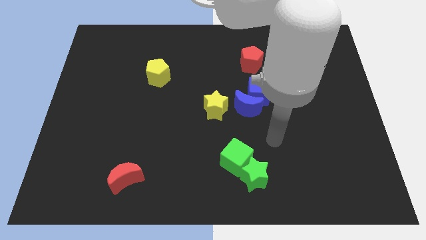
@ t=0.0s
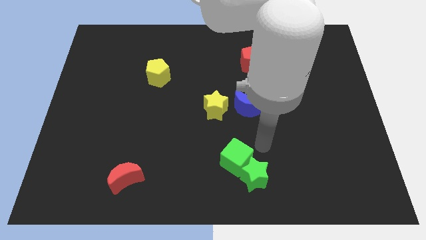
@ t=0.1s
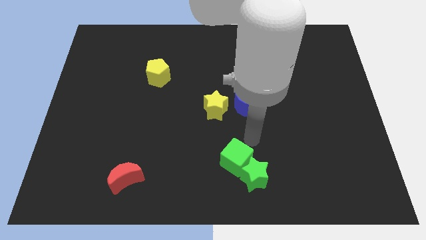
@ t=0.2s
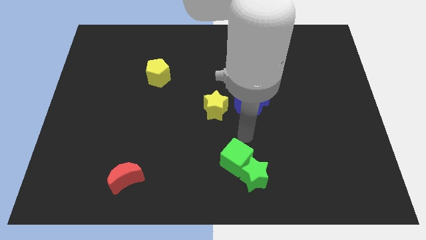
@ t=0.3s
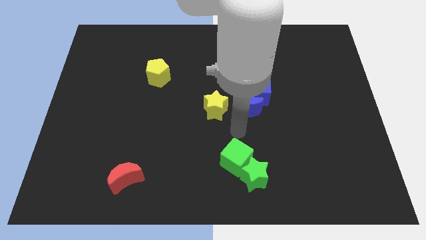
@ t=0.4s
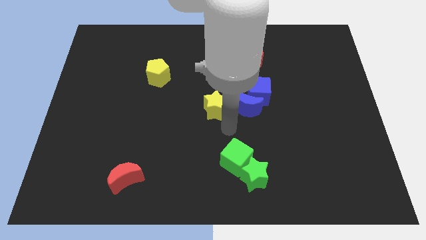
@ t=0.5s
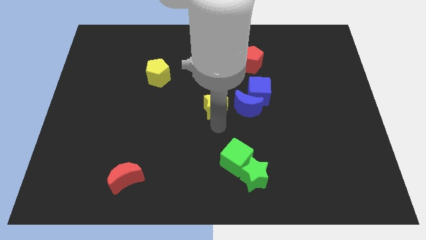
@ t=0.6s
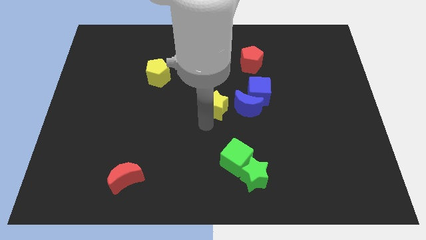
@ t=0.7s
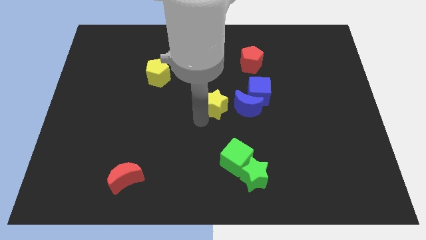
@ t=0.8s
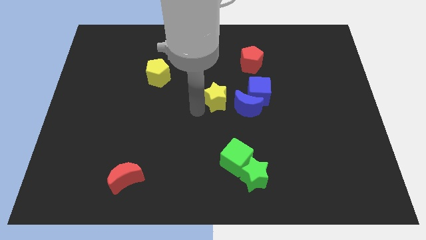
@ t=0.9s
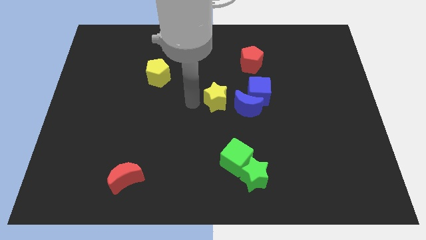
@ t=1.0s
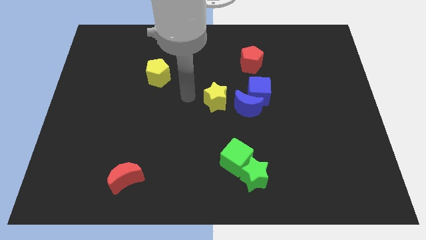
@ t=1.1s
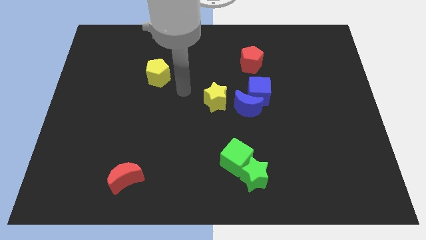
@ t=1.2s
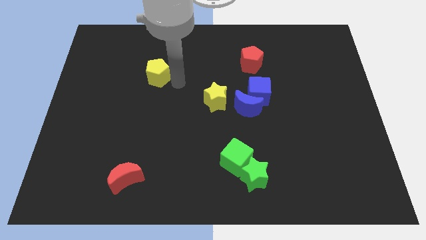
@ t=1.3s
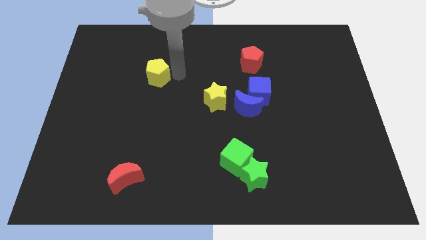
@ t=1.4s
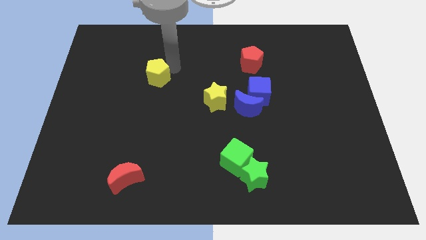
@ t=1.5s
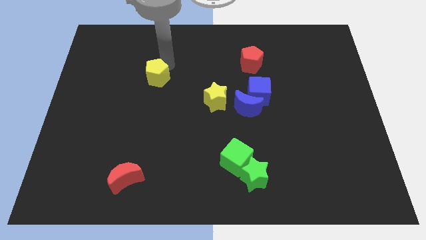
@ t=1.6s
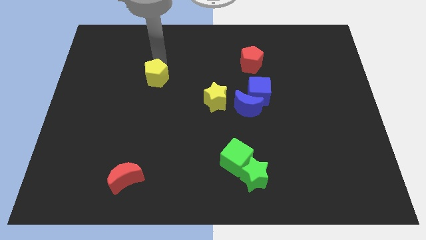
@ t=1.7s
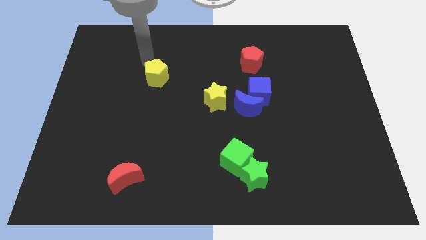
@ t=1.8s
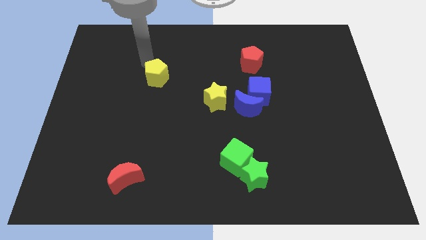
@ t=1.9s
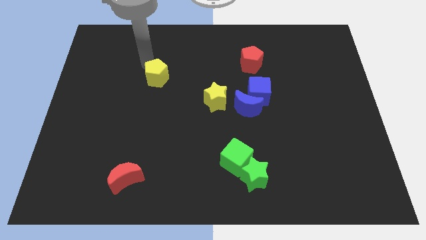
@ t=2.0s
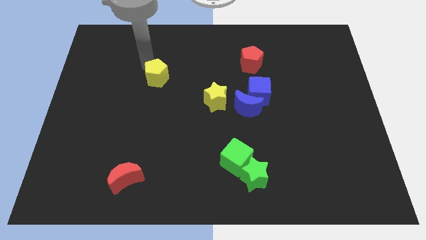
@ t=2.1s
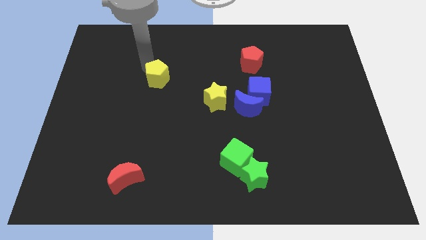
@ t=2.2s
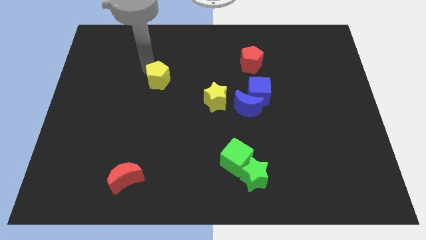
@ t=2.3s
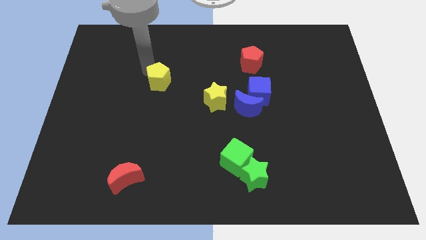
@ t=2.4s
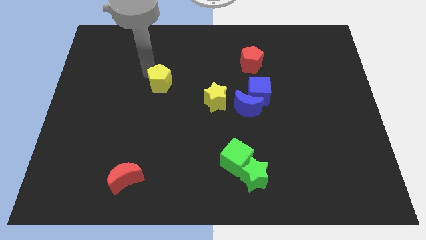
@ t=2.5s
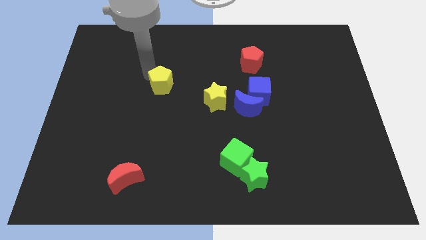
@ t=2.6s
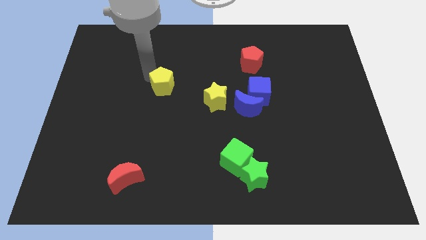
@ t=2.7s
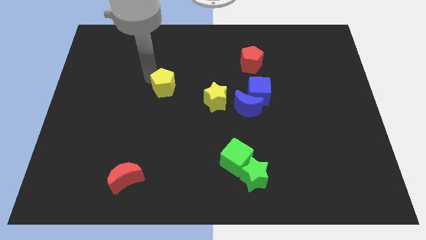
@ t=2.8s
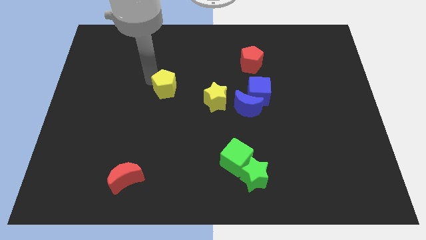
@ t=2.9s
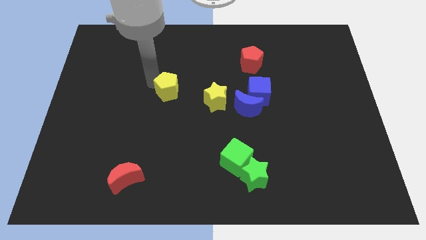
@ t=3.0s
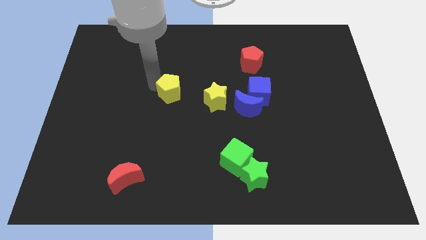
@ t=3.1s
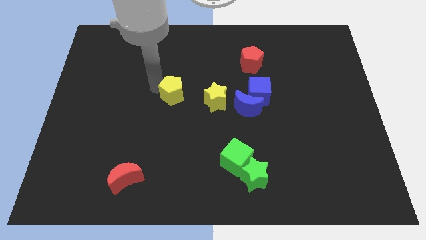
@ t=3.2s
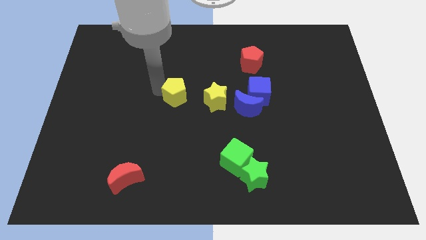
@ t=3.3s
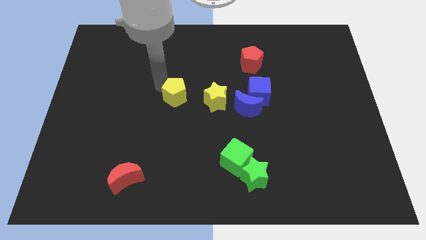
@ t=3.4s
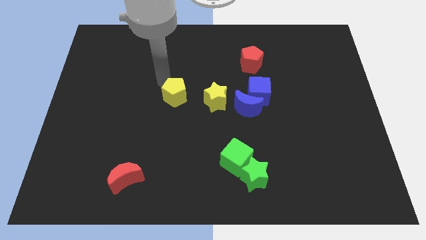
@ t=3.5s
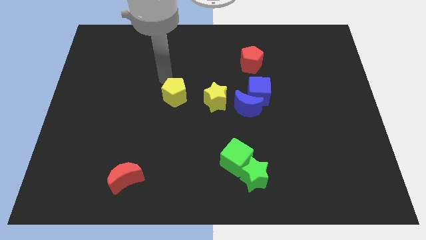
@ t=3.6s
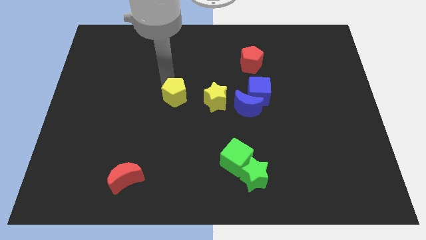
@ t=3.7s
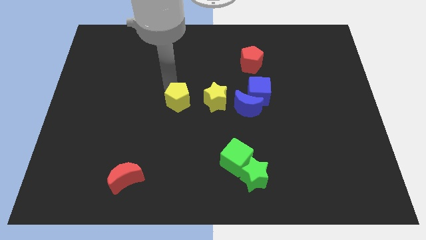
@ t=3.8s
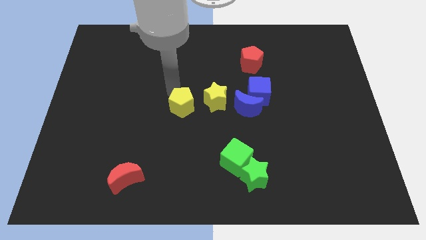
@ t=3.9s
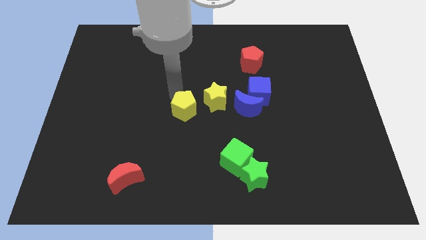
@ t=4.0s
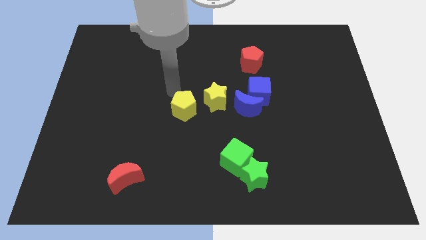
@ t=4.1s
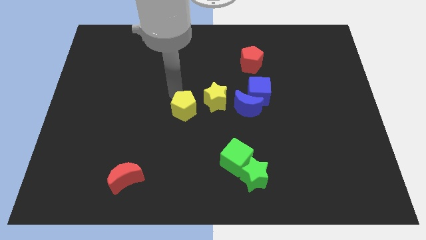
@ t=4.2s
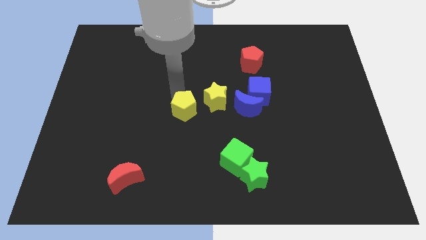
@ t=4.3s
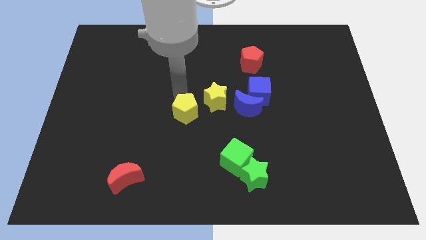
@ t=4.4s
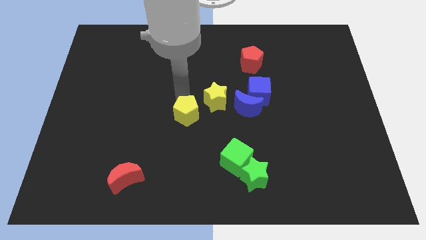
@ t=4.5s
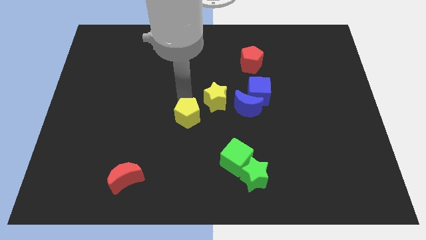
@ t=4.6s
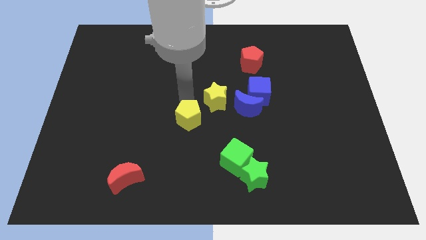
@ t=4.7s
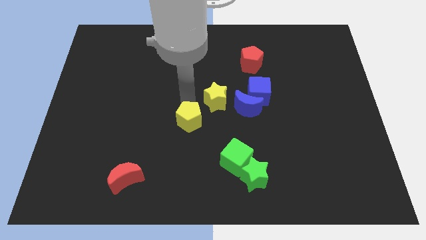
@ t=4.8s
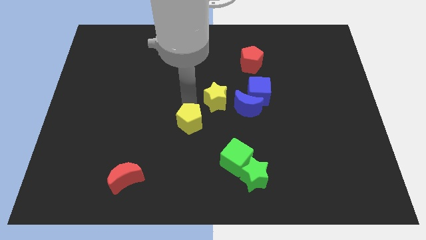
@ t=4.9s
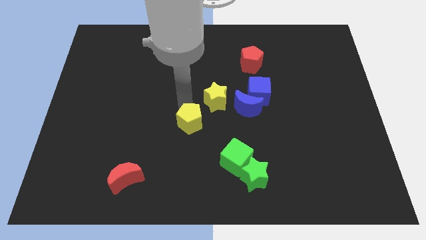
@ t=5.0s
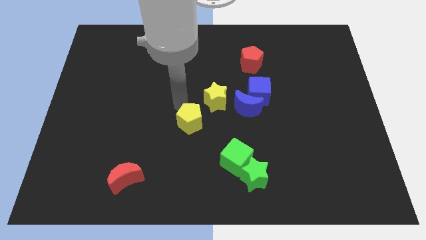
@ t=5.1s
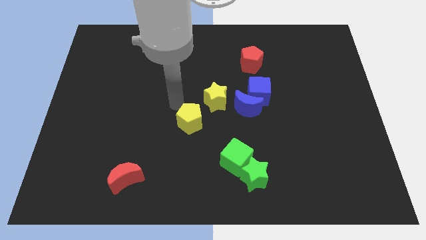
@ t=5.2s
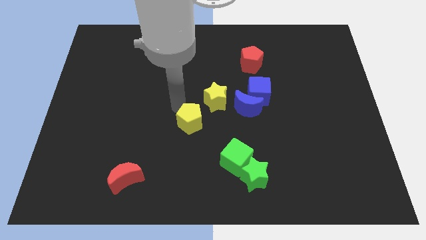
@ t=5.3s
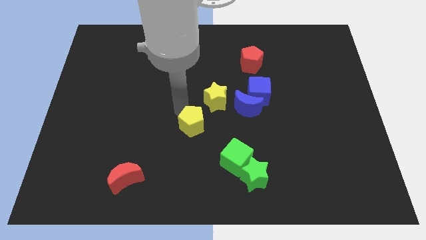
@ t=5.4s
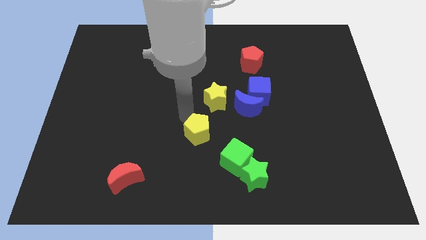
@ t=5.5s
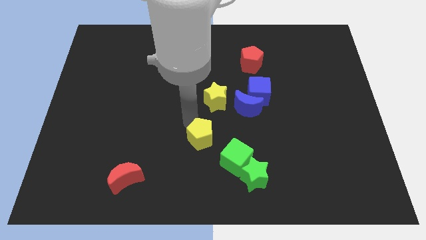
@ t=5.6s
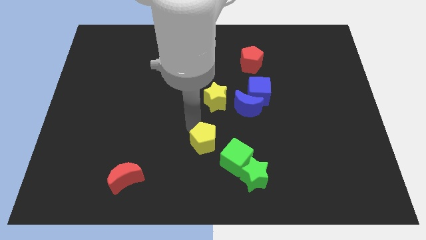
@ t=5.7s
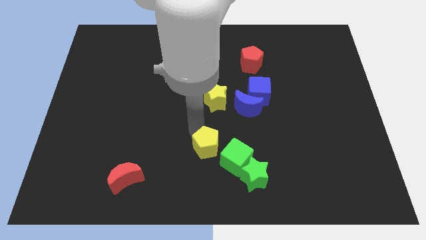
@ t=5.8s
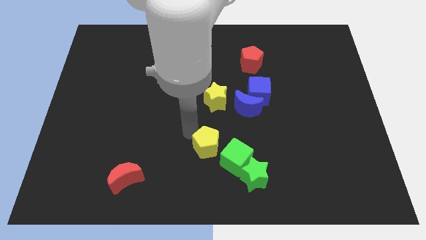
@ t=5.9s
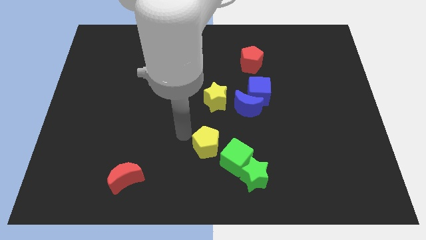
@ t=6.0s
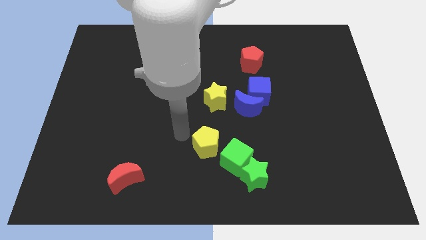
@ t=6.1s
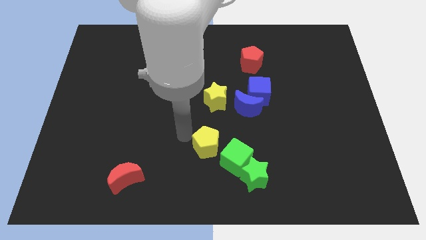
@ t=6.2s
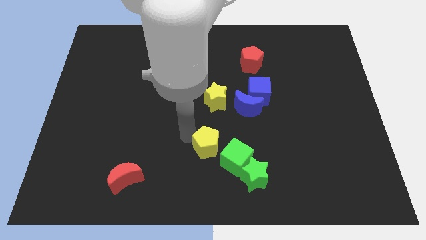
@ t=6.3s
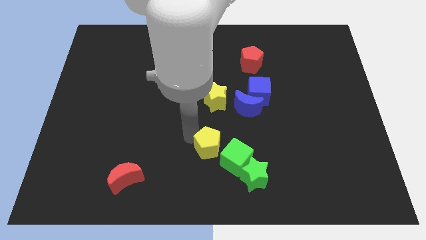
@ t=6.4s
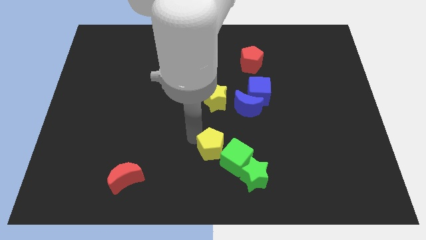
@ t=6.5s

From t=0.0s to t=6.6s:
put the yellow pentagon close to the green cube
